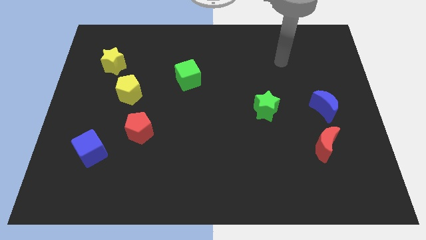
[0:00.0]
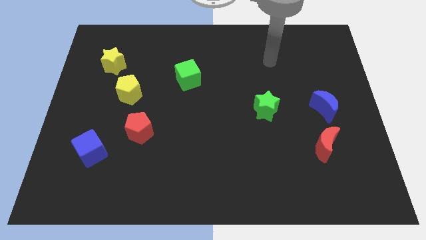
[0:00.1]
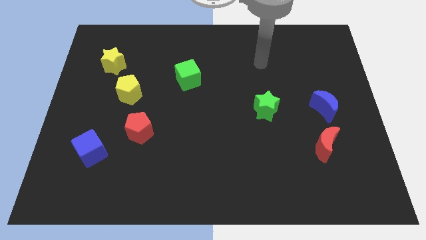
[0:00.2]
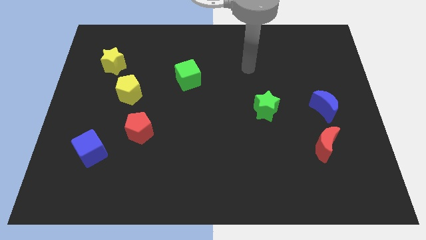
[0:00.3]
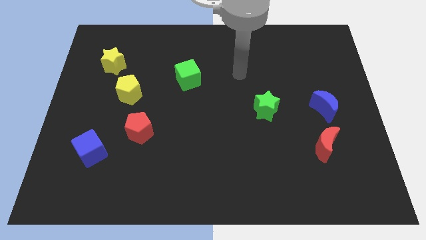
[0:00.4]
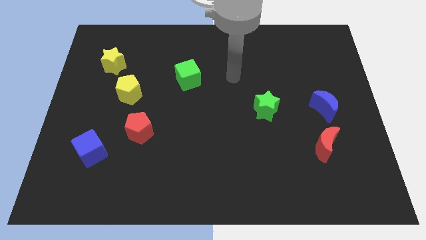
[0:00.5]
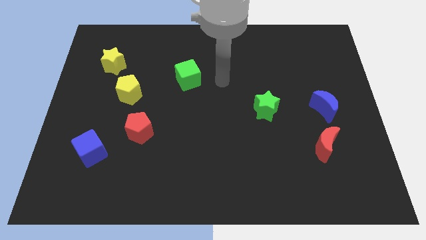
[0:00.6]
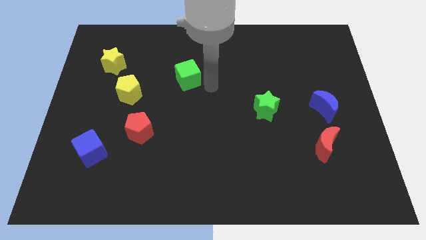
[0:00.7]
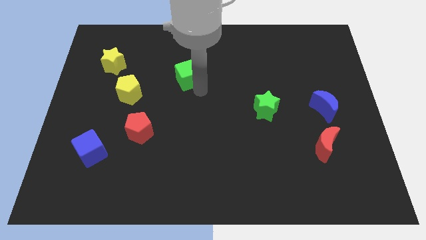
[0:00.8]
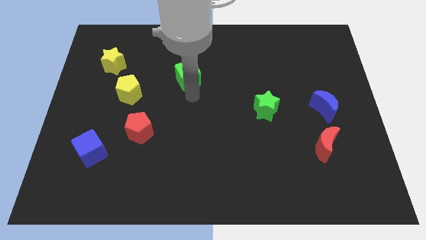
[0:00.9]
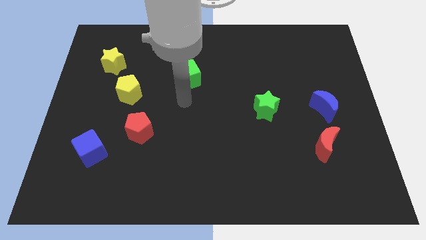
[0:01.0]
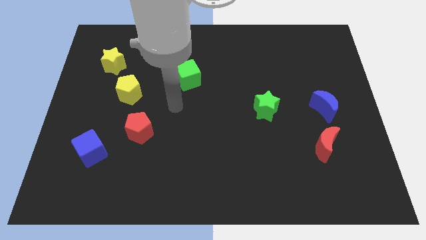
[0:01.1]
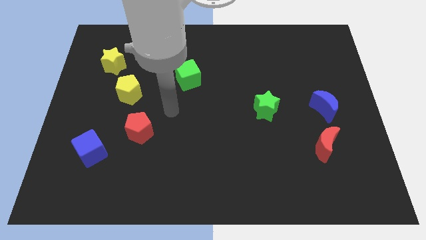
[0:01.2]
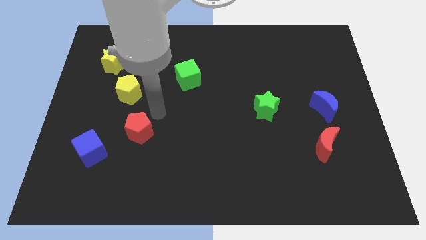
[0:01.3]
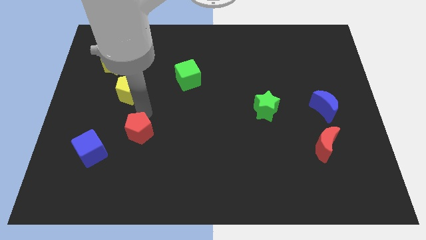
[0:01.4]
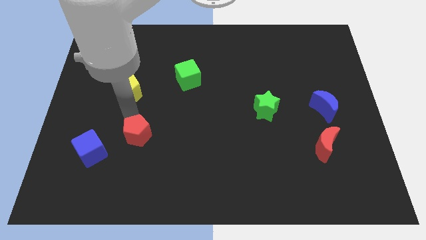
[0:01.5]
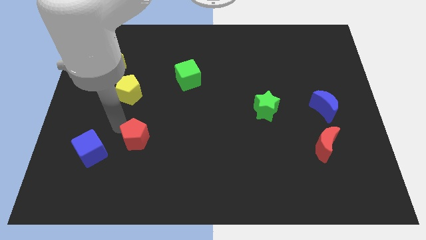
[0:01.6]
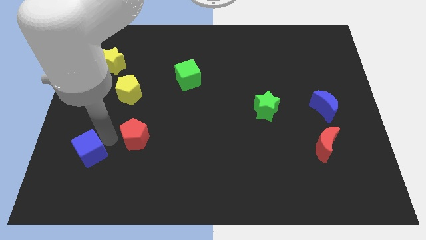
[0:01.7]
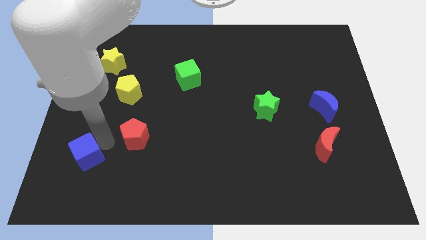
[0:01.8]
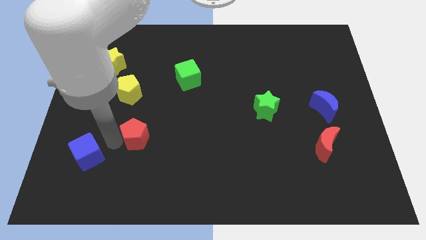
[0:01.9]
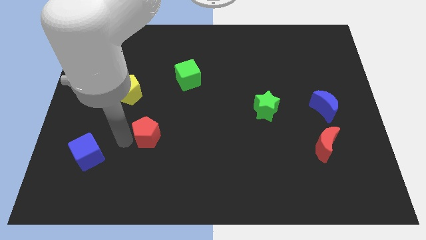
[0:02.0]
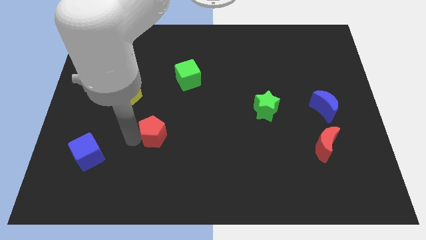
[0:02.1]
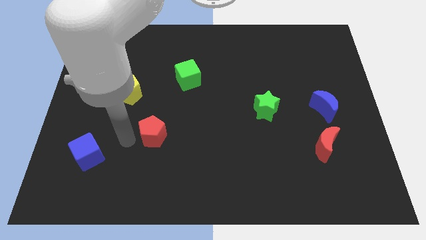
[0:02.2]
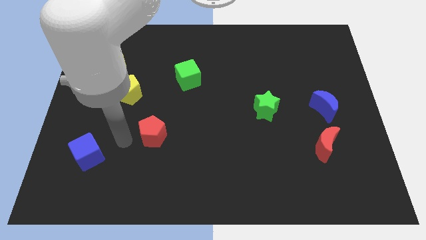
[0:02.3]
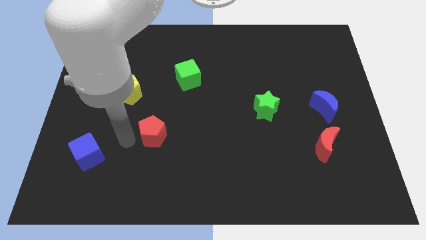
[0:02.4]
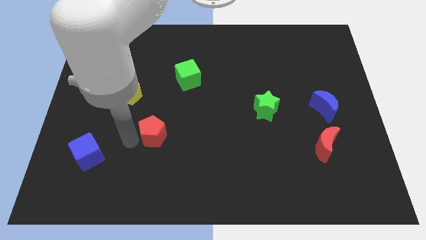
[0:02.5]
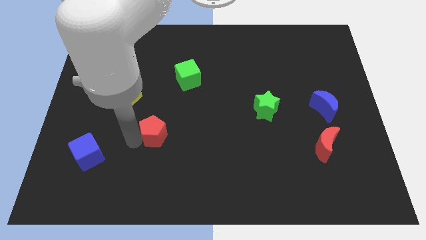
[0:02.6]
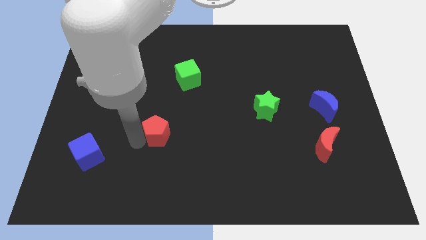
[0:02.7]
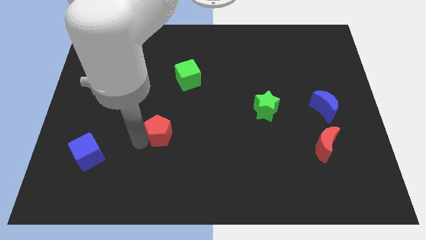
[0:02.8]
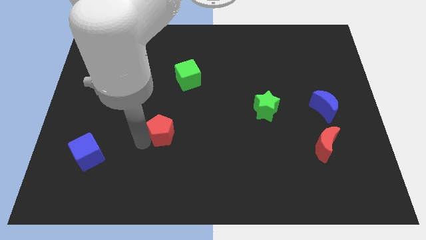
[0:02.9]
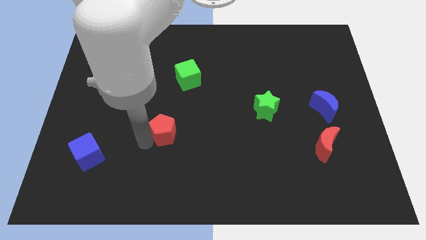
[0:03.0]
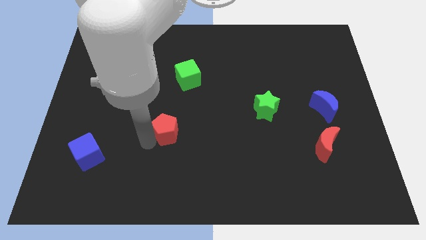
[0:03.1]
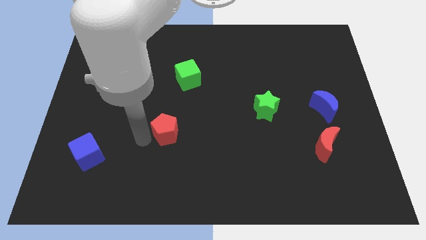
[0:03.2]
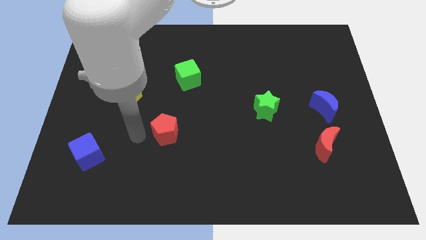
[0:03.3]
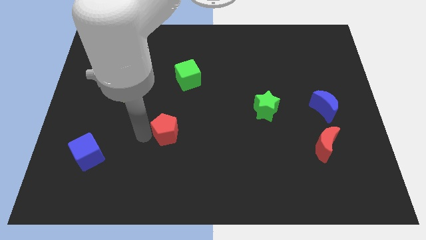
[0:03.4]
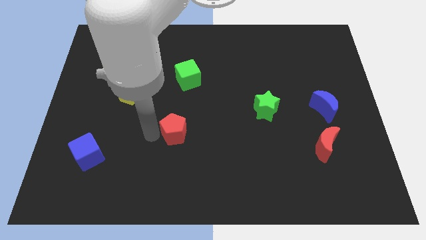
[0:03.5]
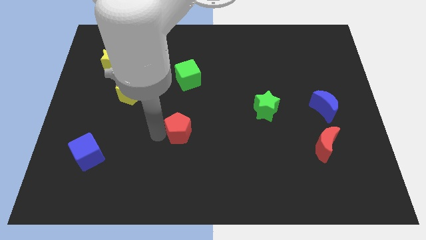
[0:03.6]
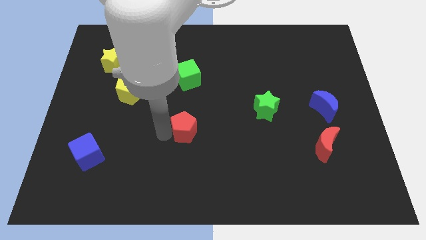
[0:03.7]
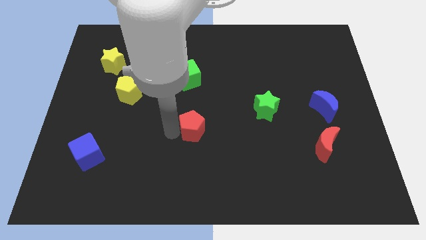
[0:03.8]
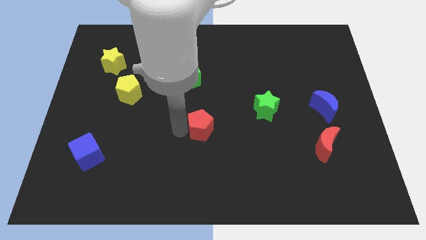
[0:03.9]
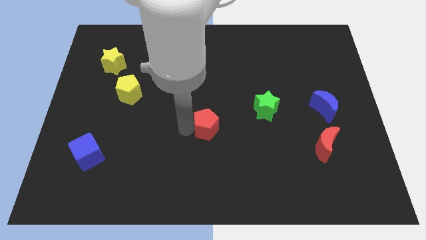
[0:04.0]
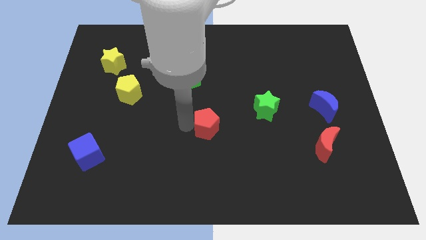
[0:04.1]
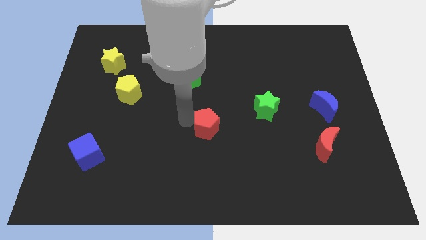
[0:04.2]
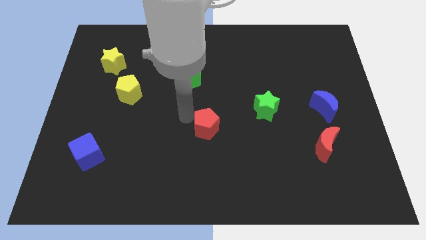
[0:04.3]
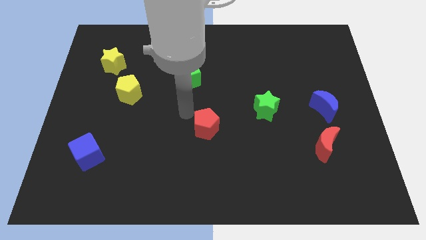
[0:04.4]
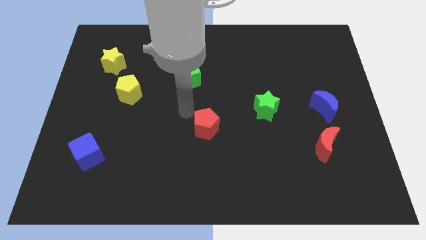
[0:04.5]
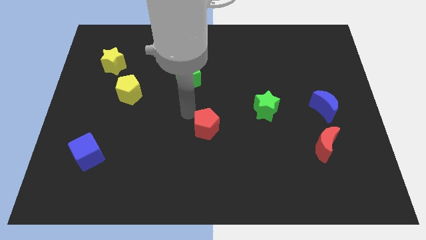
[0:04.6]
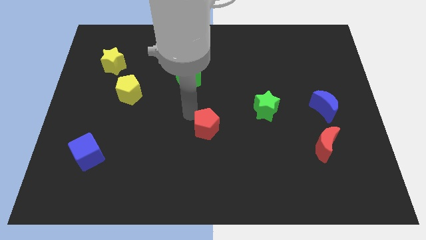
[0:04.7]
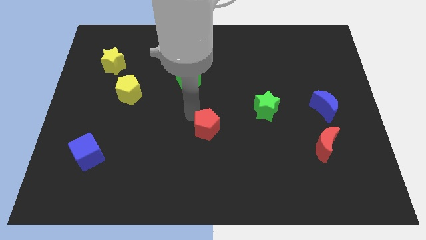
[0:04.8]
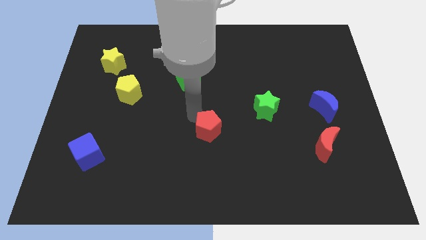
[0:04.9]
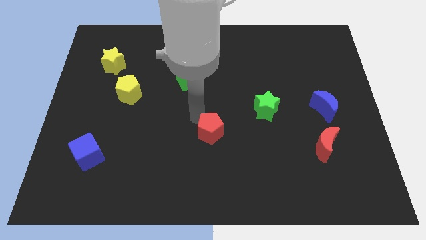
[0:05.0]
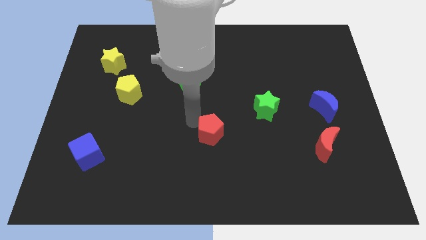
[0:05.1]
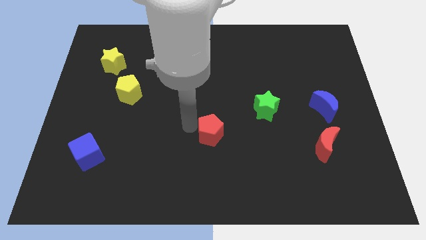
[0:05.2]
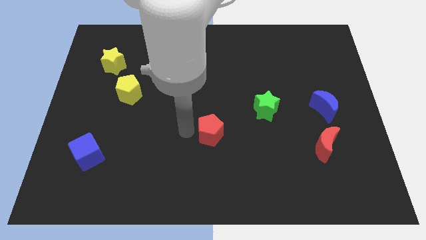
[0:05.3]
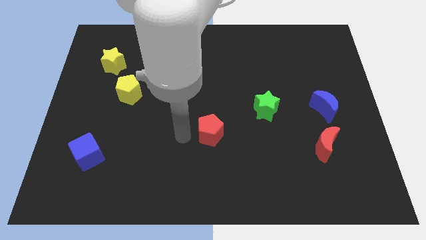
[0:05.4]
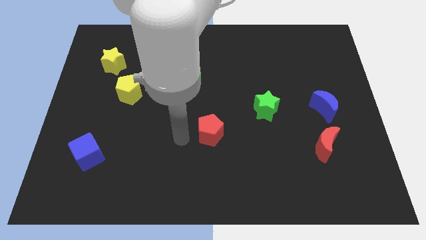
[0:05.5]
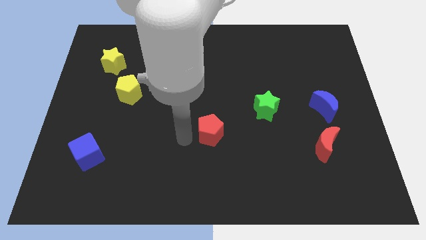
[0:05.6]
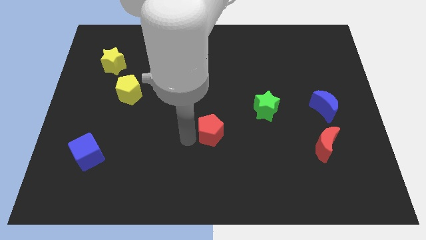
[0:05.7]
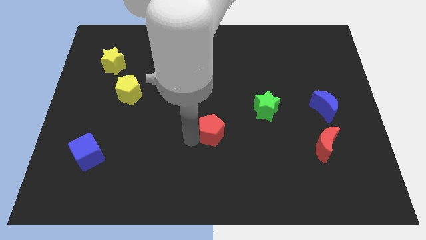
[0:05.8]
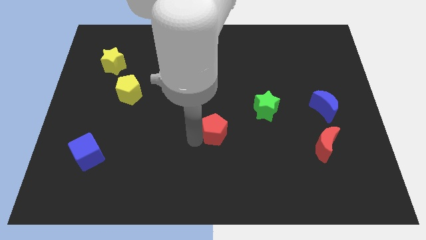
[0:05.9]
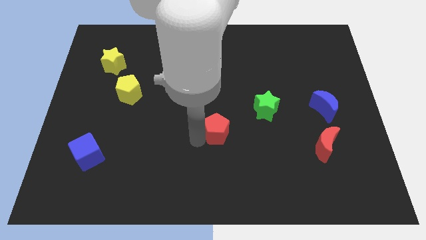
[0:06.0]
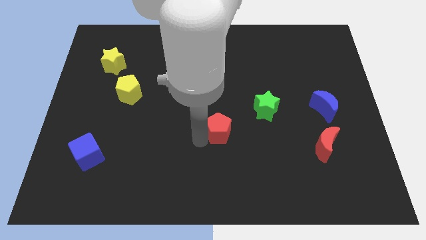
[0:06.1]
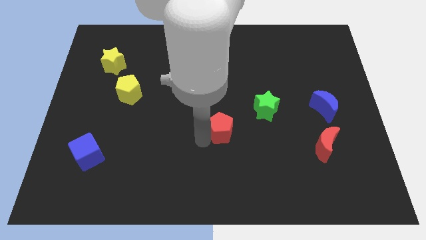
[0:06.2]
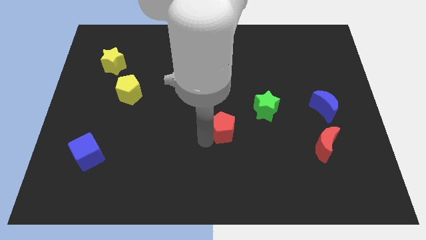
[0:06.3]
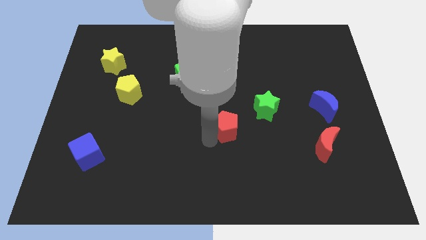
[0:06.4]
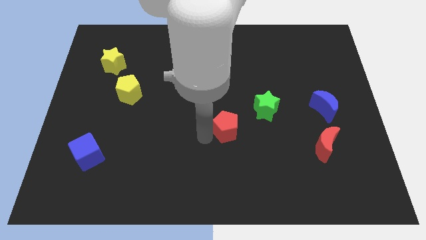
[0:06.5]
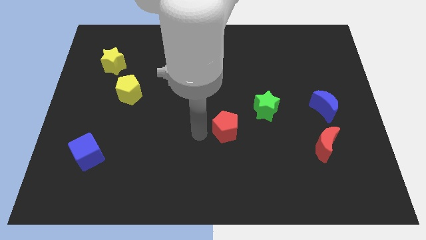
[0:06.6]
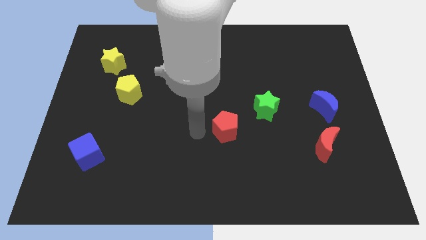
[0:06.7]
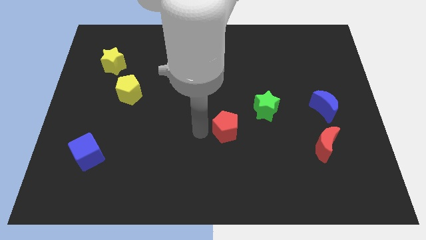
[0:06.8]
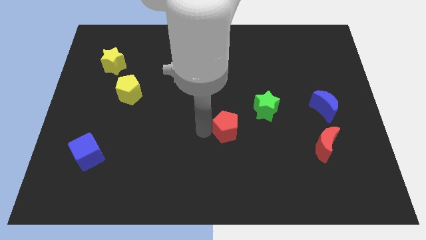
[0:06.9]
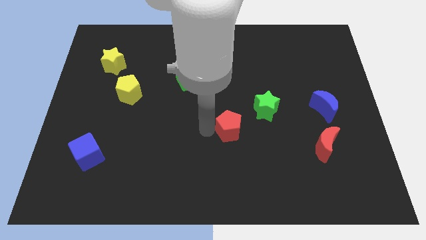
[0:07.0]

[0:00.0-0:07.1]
slide the red pentagon to the right

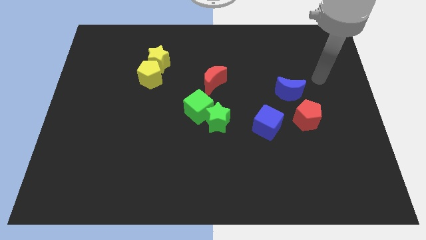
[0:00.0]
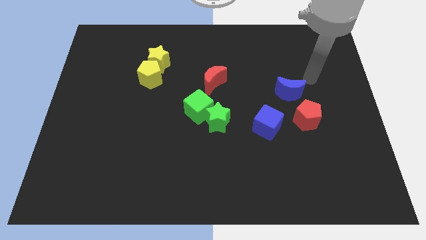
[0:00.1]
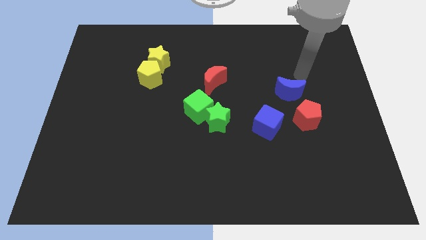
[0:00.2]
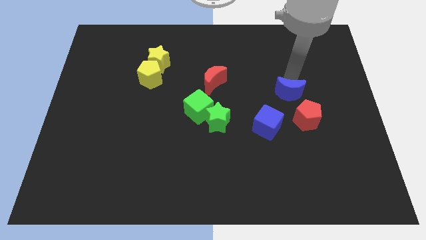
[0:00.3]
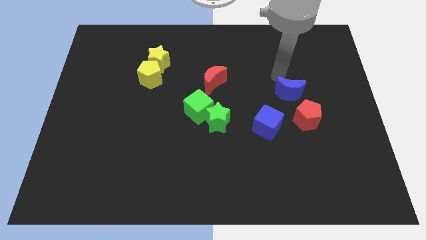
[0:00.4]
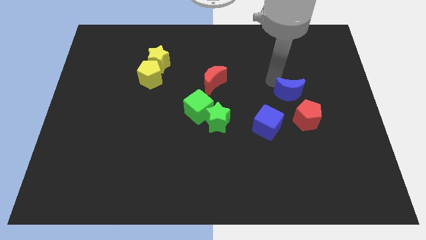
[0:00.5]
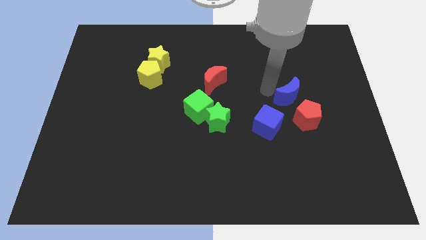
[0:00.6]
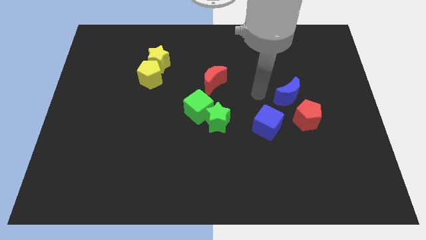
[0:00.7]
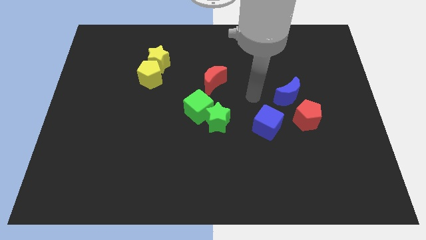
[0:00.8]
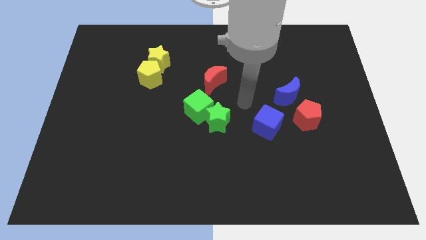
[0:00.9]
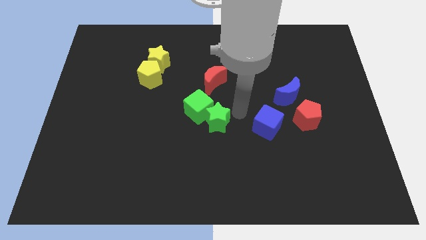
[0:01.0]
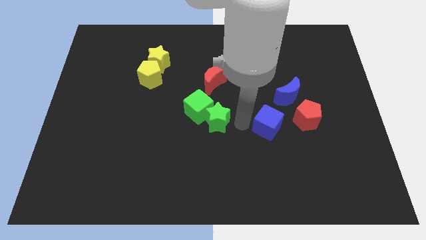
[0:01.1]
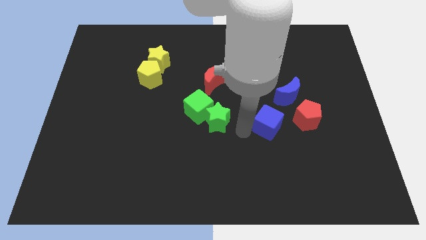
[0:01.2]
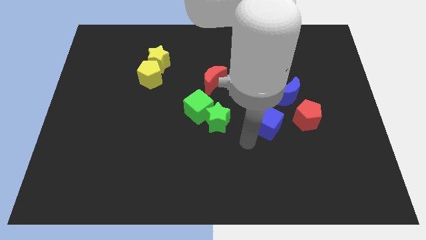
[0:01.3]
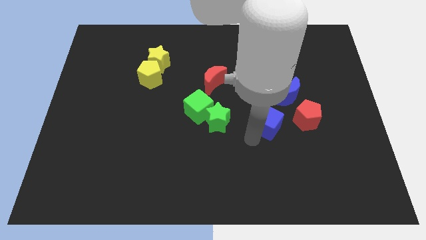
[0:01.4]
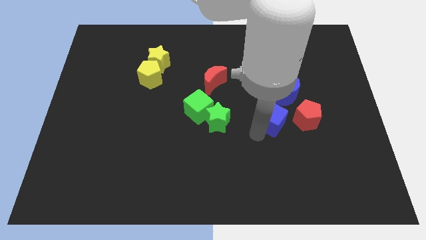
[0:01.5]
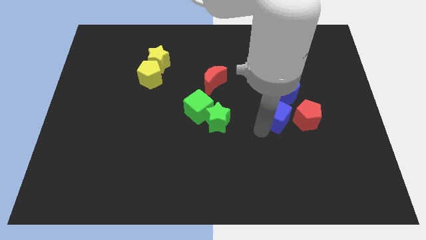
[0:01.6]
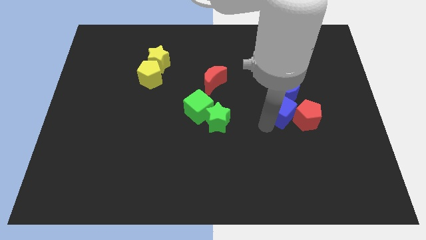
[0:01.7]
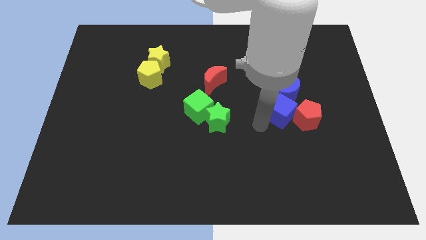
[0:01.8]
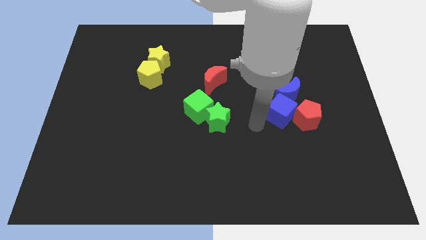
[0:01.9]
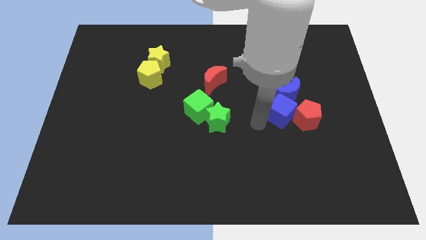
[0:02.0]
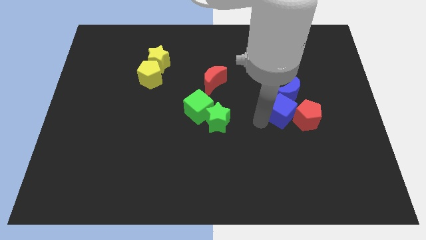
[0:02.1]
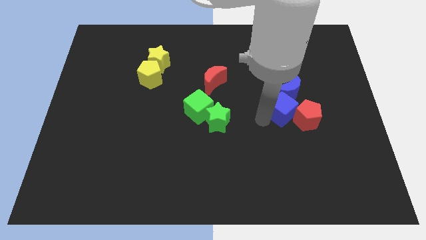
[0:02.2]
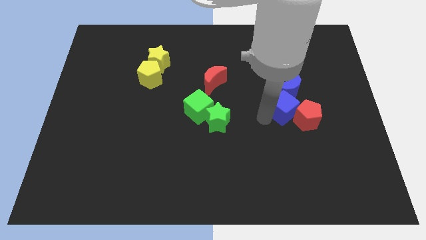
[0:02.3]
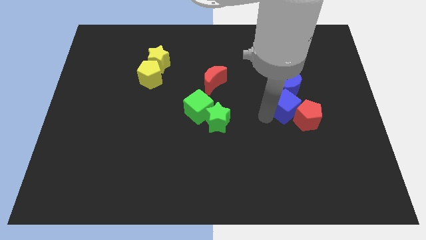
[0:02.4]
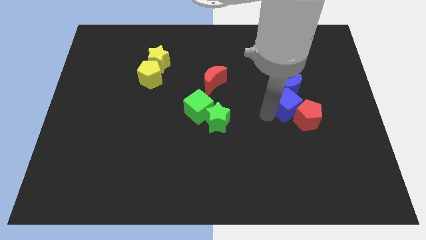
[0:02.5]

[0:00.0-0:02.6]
push the blue cube somewhat upwards and right
